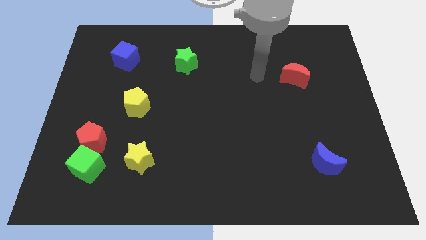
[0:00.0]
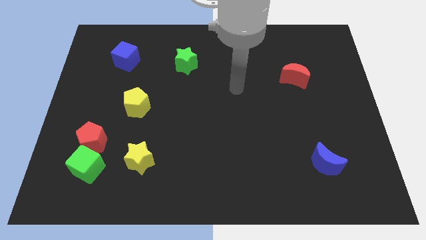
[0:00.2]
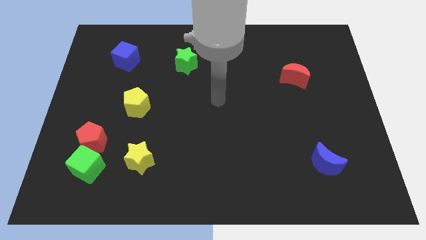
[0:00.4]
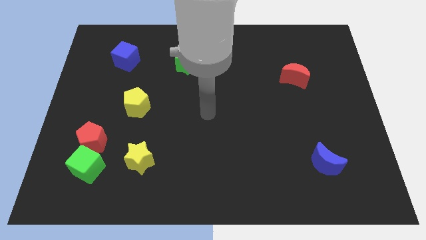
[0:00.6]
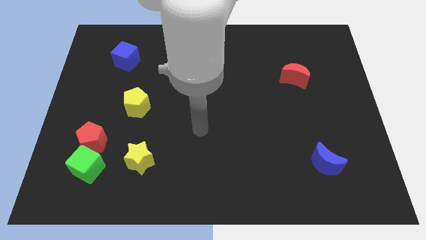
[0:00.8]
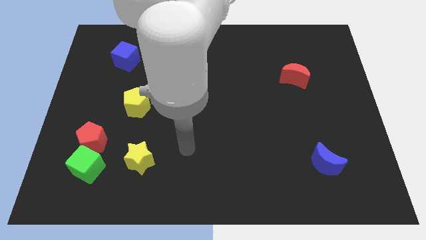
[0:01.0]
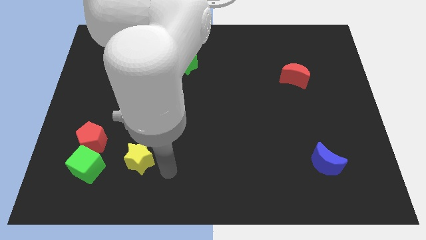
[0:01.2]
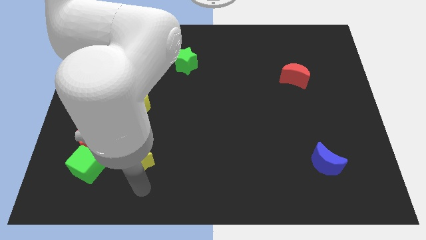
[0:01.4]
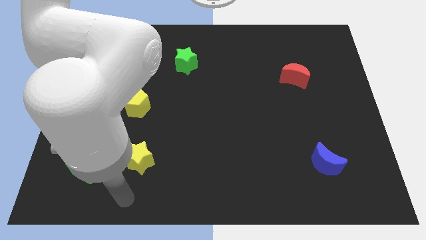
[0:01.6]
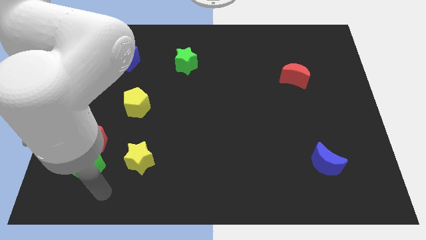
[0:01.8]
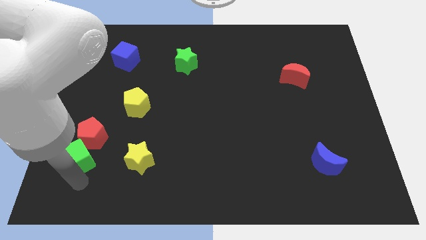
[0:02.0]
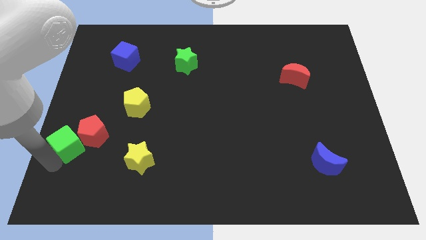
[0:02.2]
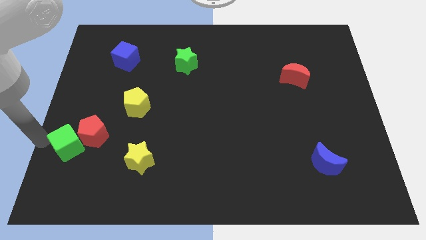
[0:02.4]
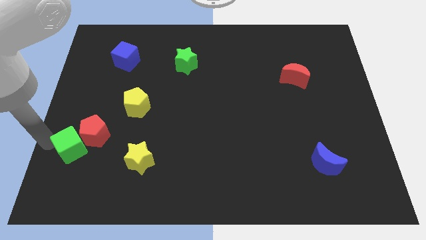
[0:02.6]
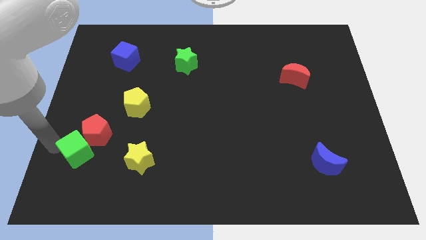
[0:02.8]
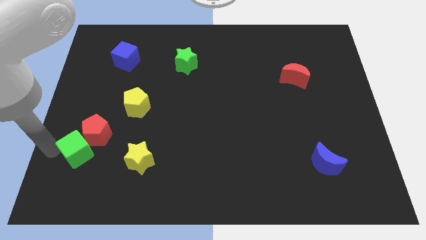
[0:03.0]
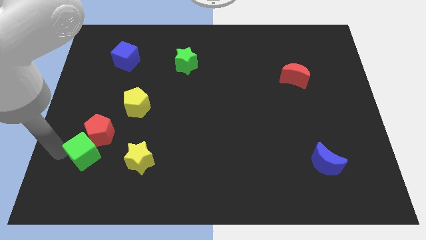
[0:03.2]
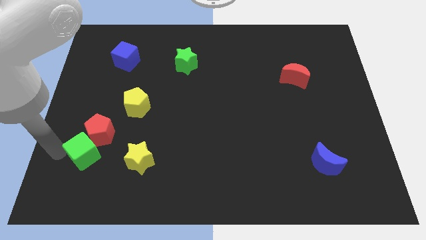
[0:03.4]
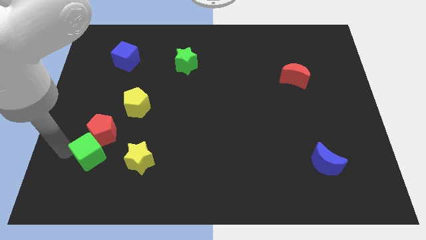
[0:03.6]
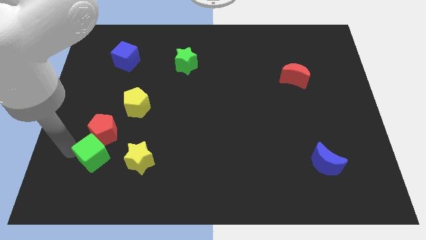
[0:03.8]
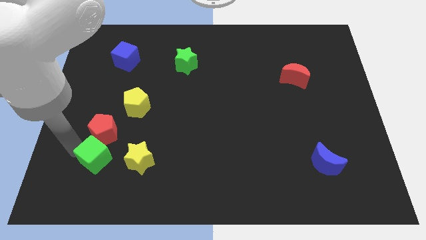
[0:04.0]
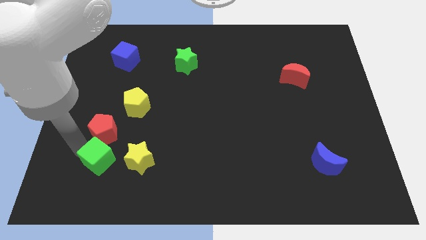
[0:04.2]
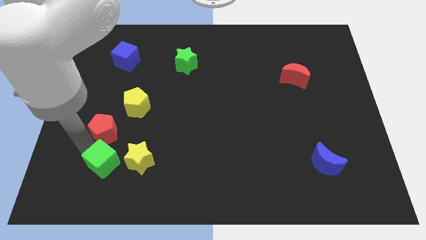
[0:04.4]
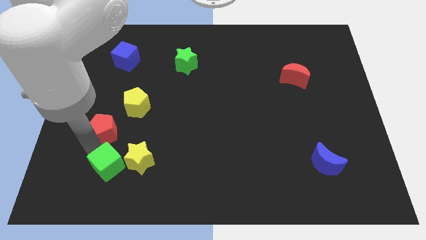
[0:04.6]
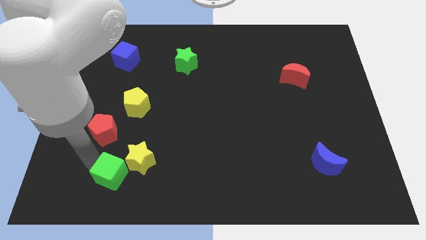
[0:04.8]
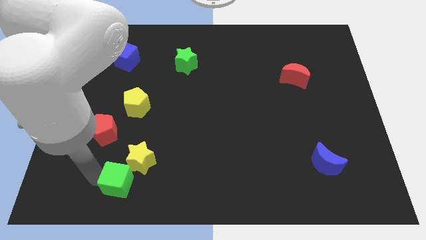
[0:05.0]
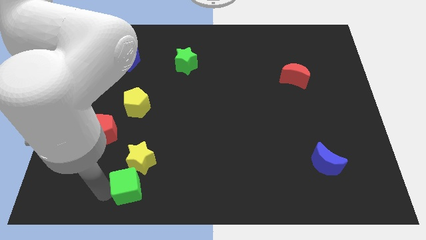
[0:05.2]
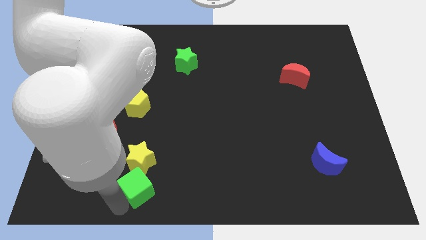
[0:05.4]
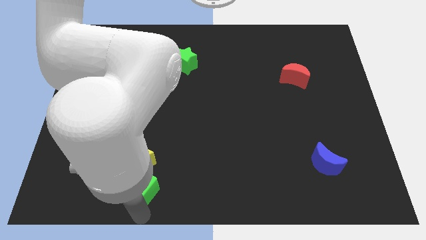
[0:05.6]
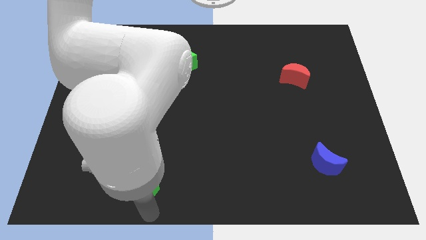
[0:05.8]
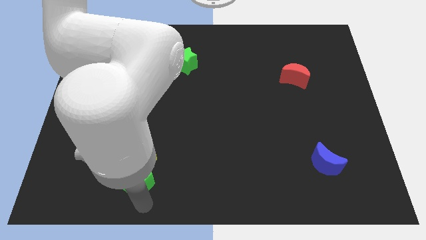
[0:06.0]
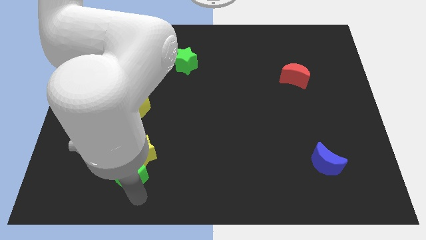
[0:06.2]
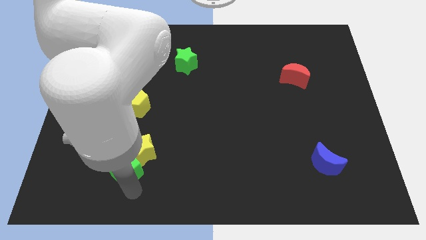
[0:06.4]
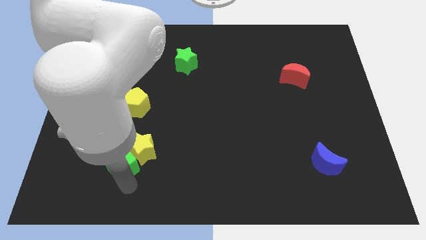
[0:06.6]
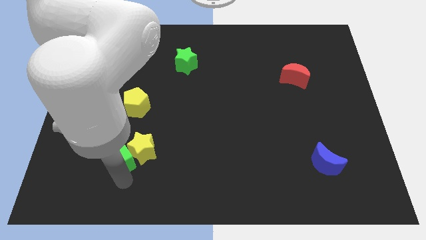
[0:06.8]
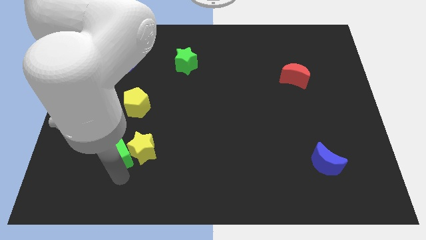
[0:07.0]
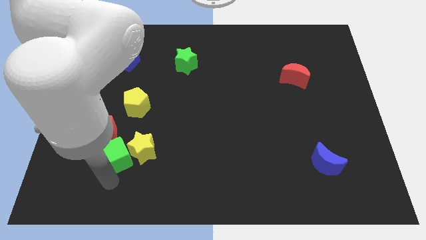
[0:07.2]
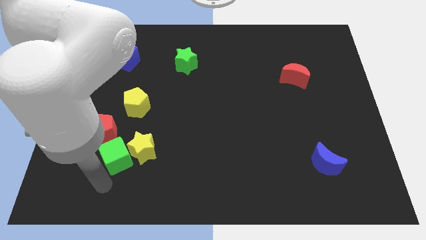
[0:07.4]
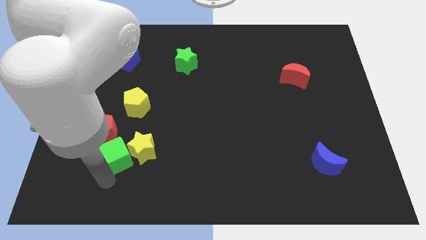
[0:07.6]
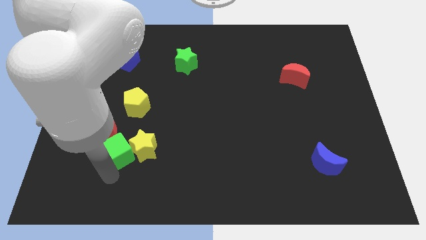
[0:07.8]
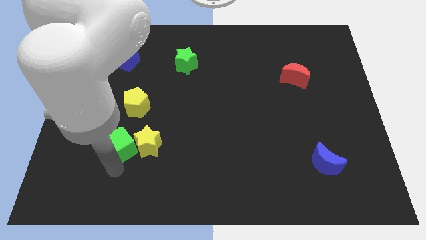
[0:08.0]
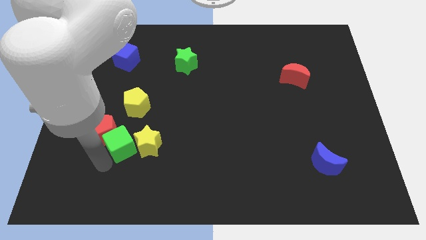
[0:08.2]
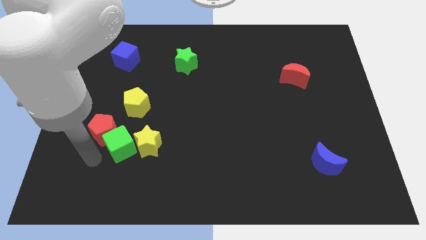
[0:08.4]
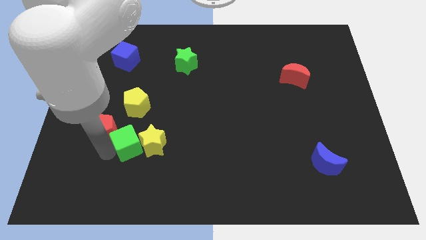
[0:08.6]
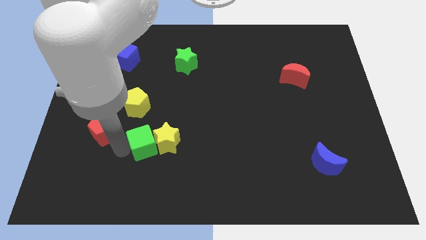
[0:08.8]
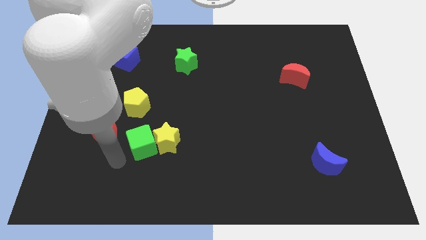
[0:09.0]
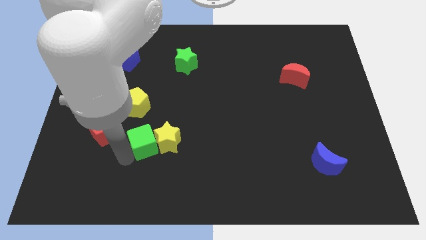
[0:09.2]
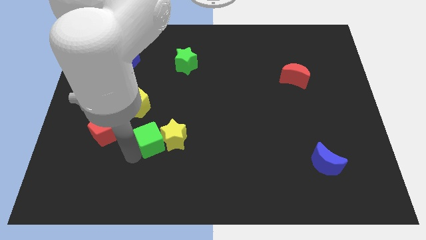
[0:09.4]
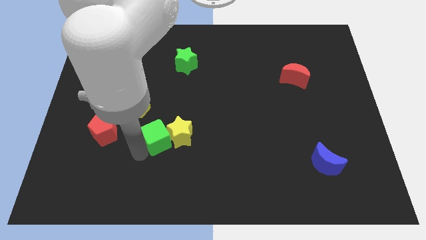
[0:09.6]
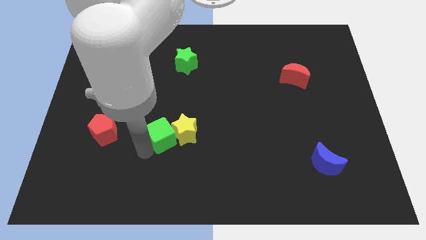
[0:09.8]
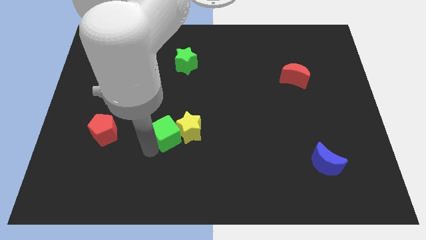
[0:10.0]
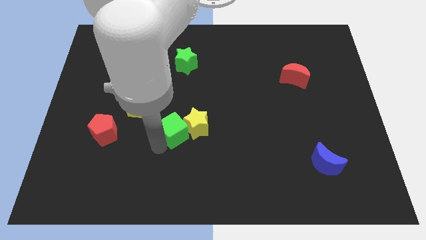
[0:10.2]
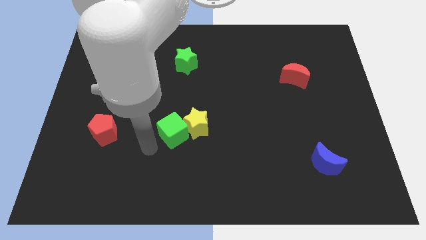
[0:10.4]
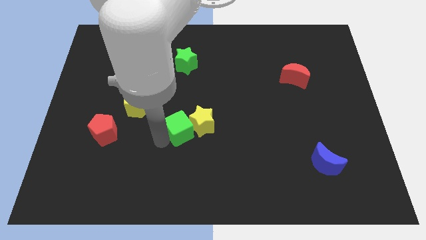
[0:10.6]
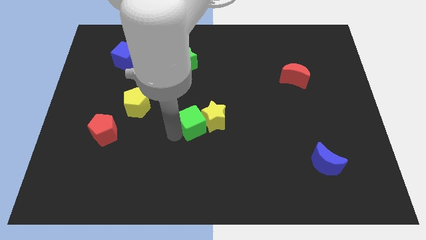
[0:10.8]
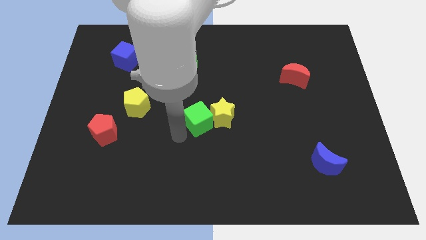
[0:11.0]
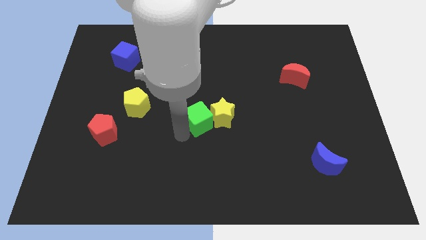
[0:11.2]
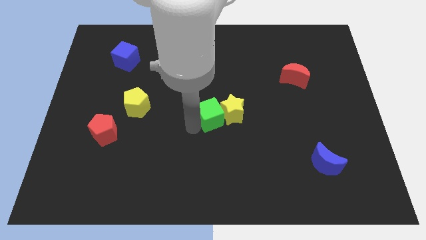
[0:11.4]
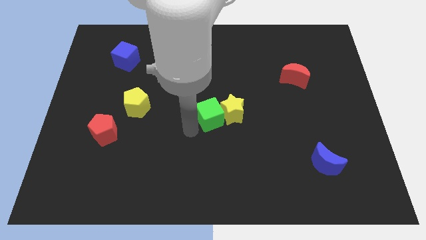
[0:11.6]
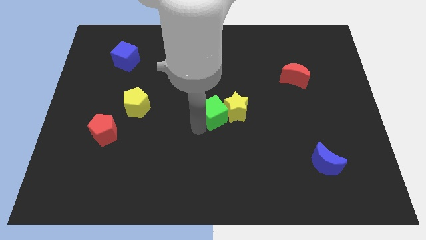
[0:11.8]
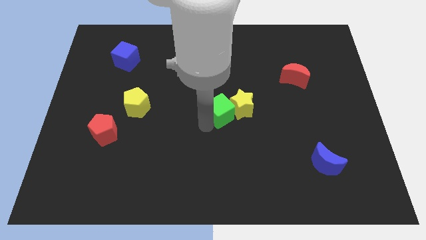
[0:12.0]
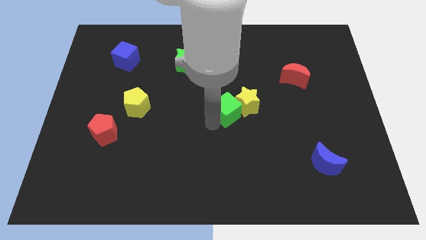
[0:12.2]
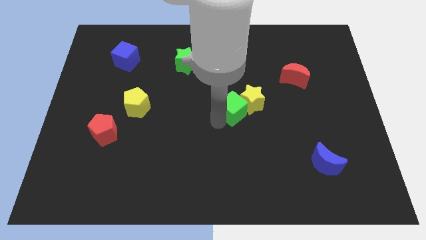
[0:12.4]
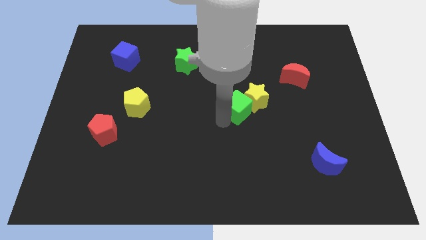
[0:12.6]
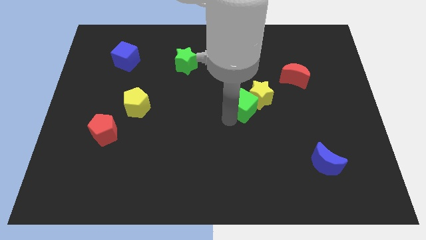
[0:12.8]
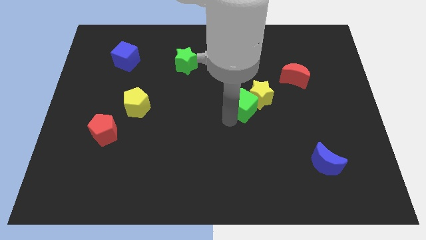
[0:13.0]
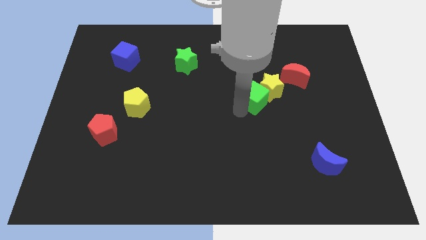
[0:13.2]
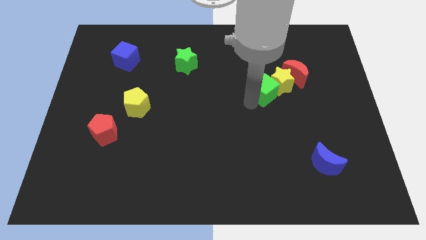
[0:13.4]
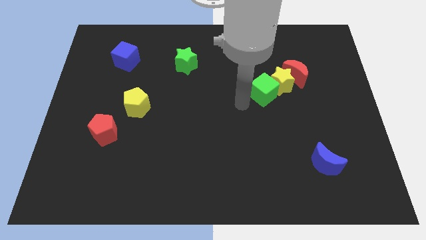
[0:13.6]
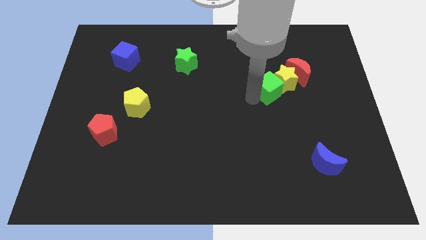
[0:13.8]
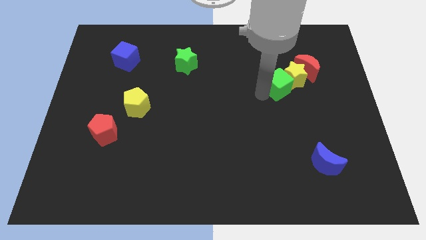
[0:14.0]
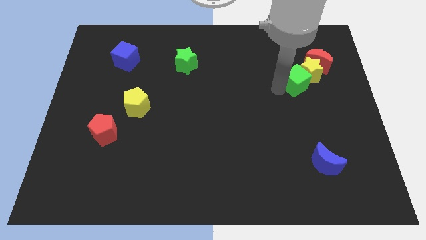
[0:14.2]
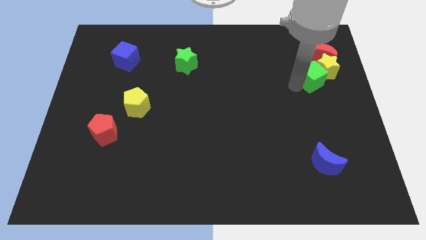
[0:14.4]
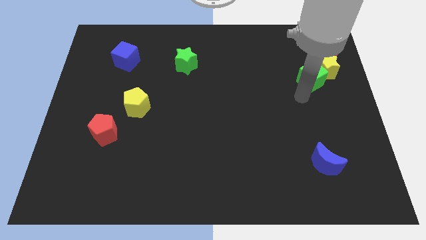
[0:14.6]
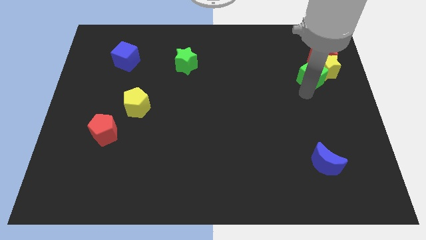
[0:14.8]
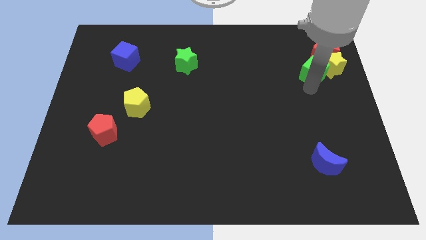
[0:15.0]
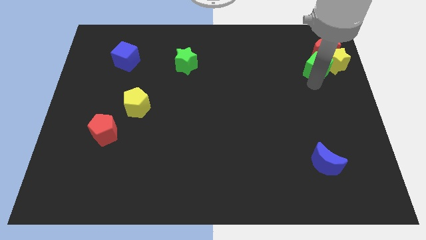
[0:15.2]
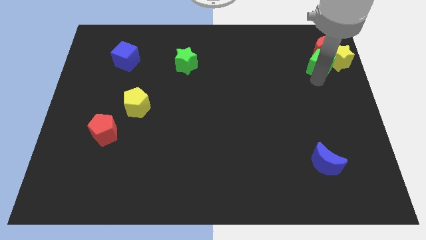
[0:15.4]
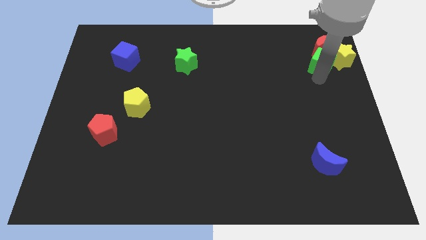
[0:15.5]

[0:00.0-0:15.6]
put the green cube next to the red moon
